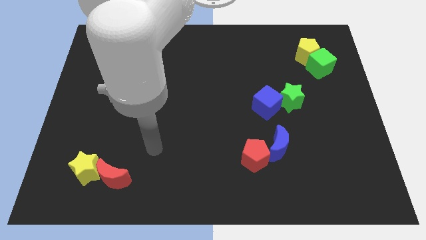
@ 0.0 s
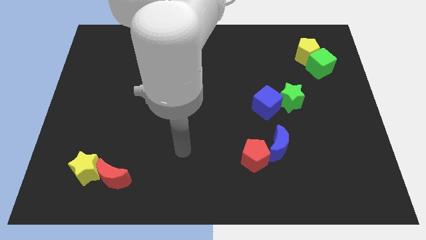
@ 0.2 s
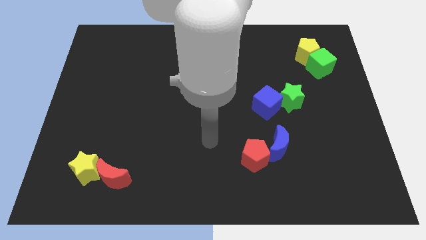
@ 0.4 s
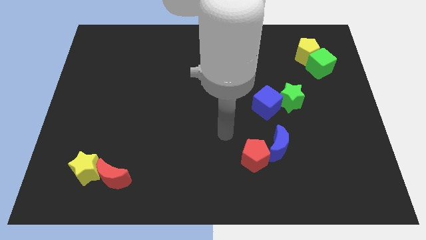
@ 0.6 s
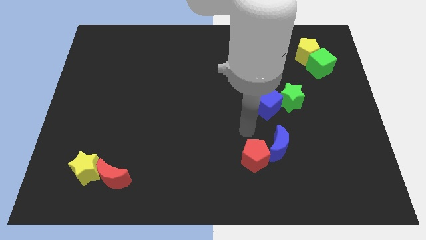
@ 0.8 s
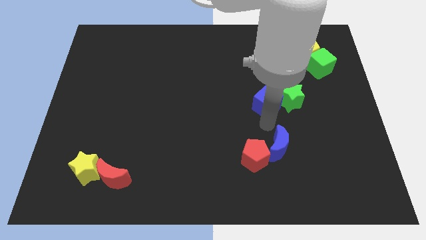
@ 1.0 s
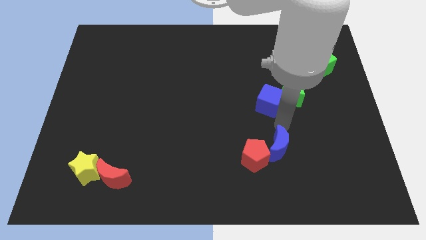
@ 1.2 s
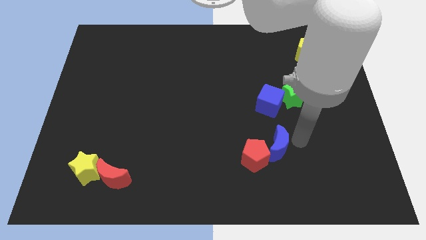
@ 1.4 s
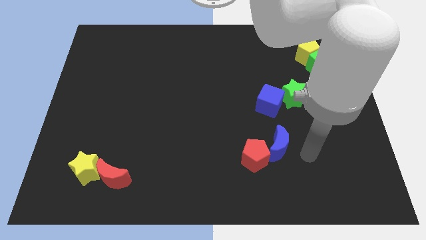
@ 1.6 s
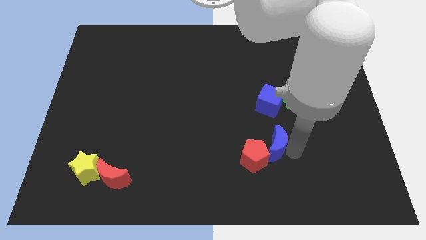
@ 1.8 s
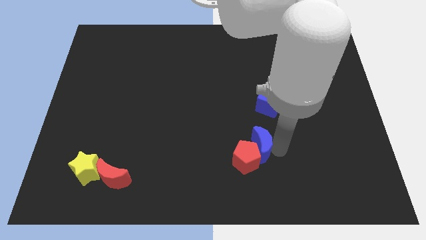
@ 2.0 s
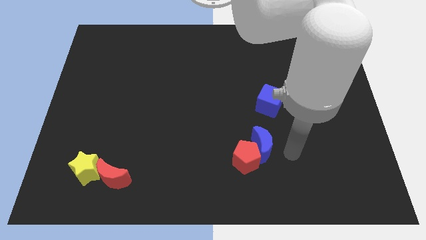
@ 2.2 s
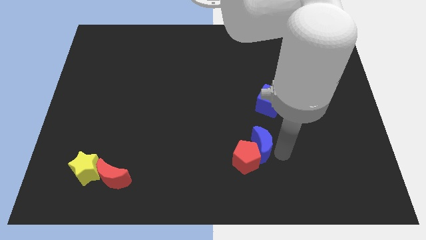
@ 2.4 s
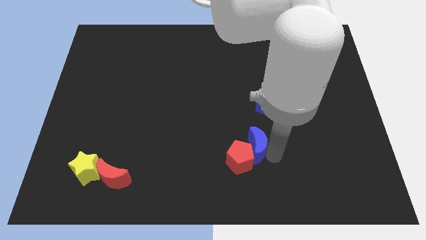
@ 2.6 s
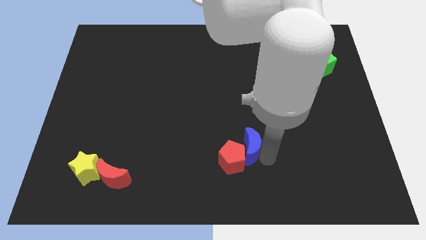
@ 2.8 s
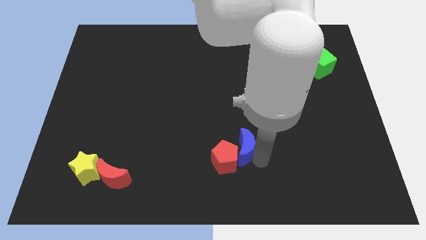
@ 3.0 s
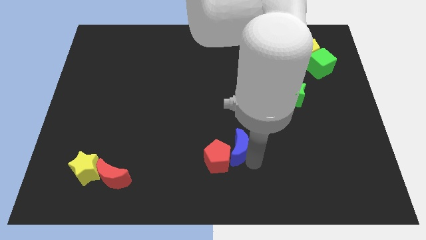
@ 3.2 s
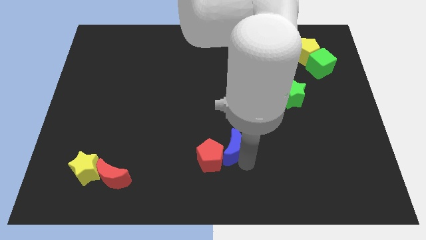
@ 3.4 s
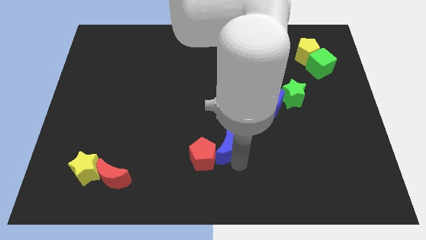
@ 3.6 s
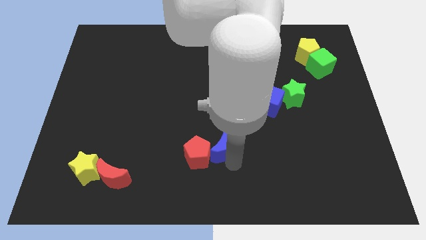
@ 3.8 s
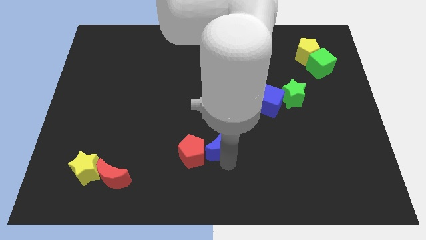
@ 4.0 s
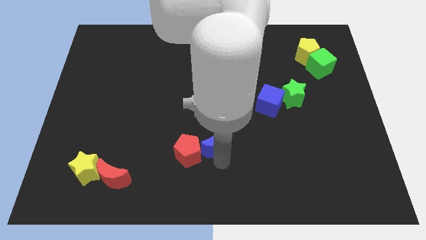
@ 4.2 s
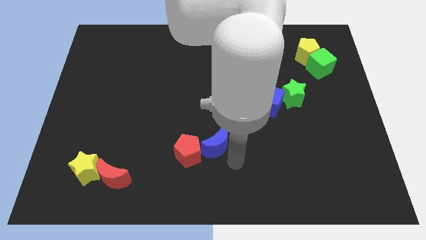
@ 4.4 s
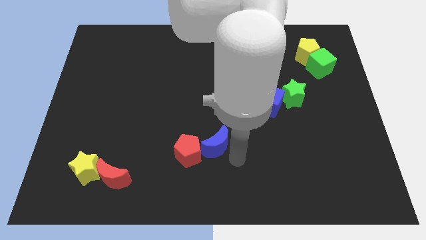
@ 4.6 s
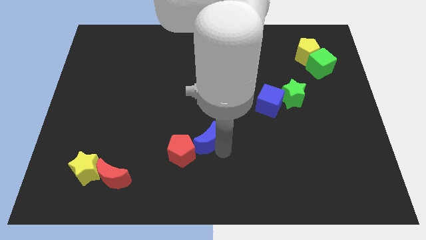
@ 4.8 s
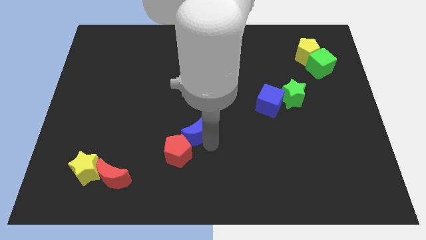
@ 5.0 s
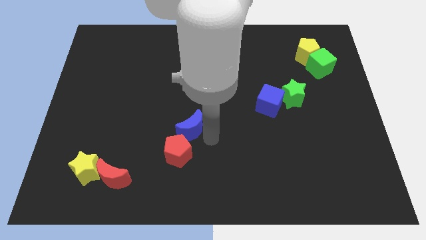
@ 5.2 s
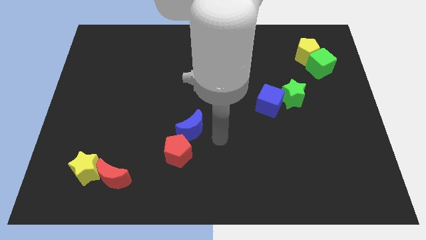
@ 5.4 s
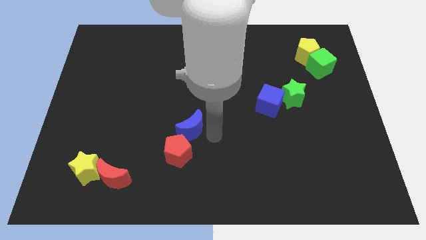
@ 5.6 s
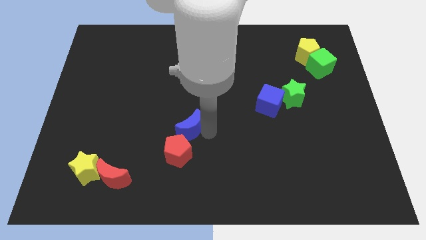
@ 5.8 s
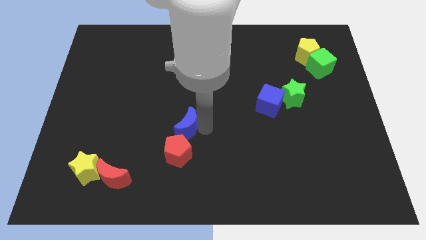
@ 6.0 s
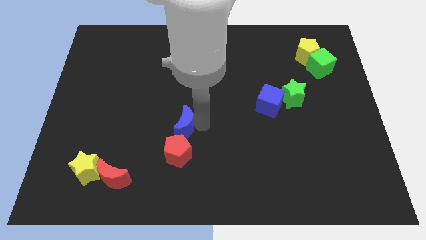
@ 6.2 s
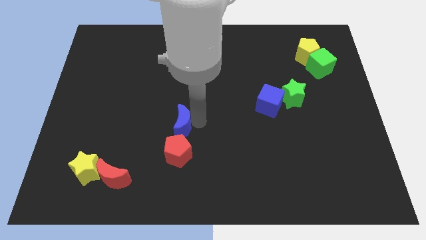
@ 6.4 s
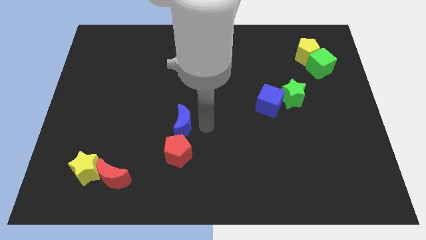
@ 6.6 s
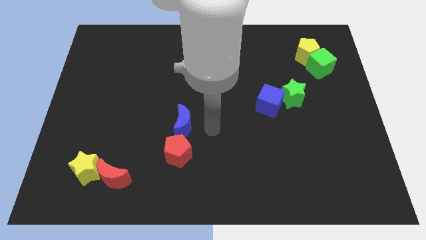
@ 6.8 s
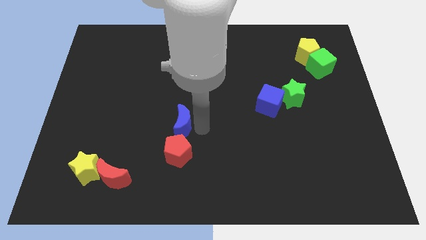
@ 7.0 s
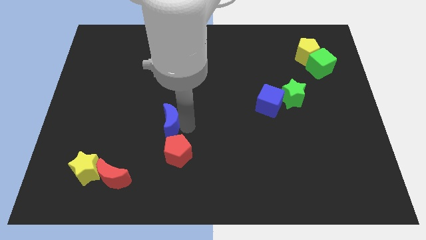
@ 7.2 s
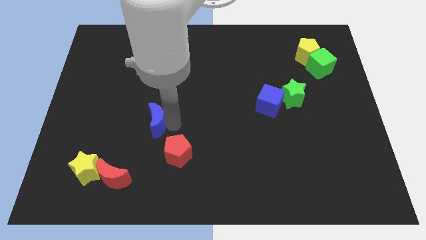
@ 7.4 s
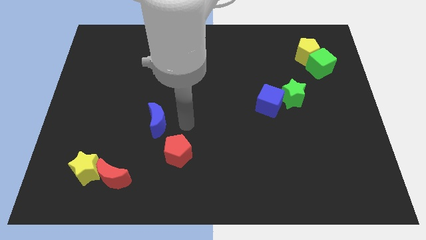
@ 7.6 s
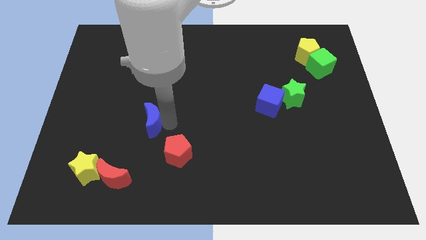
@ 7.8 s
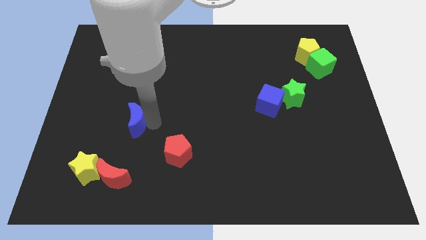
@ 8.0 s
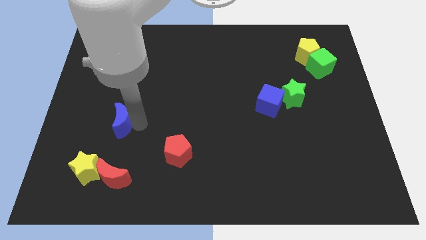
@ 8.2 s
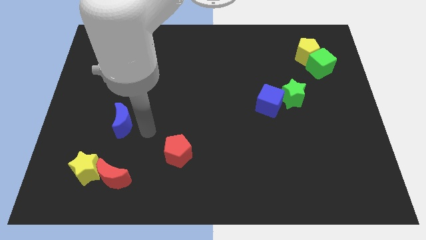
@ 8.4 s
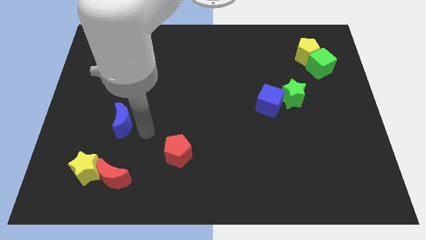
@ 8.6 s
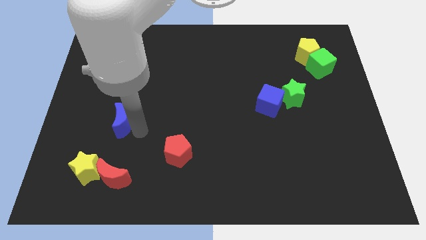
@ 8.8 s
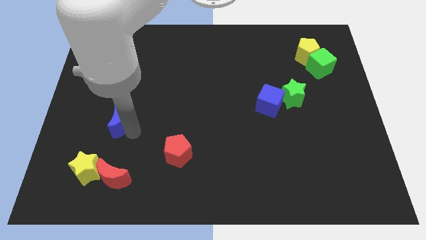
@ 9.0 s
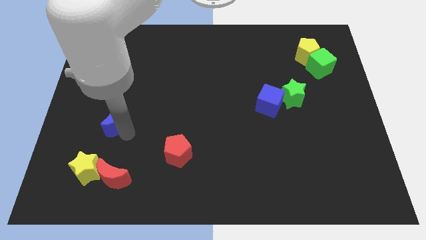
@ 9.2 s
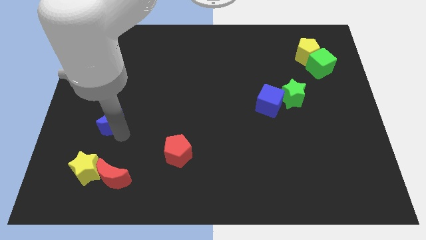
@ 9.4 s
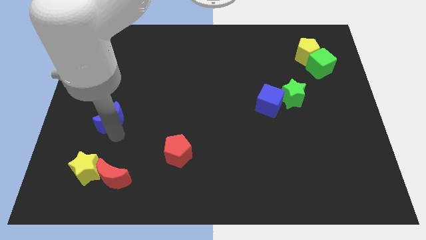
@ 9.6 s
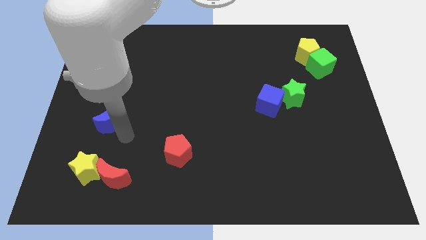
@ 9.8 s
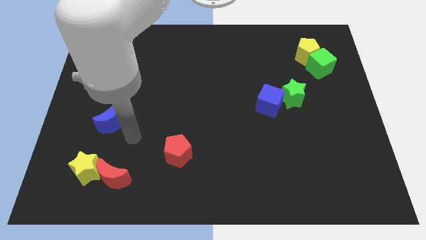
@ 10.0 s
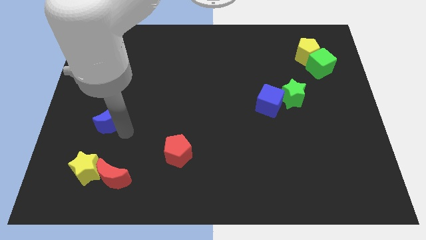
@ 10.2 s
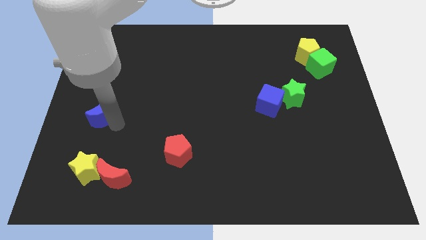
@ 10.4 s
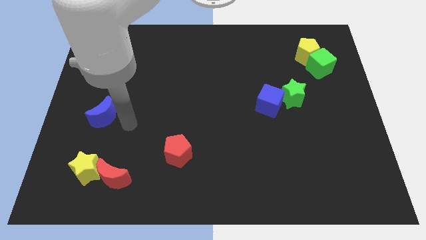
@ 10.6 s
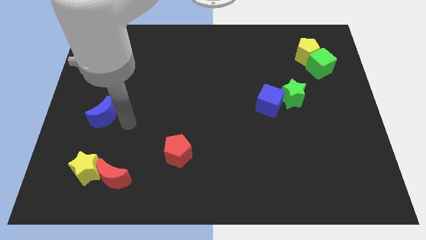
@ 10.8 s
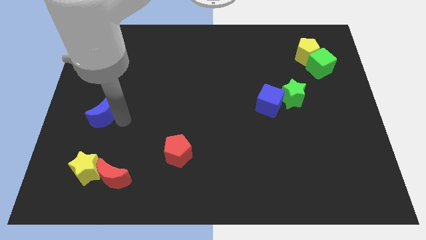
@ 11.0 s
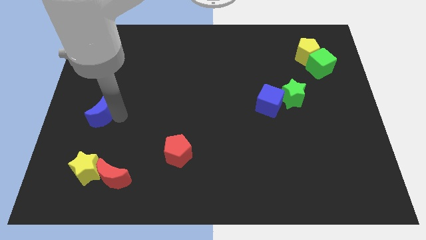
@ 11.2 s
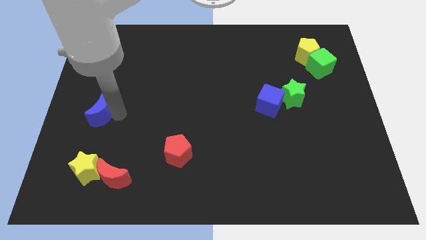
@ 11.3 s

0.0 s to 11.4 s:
put the blue moon to the left side
